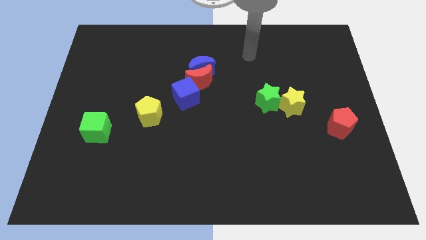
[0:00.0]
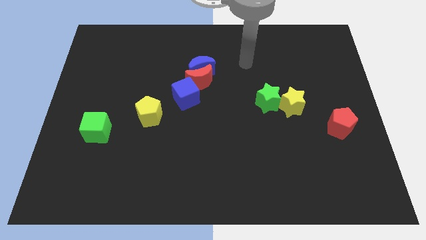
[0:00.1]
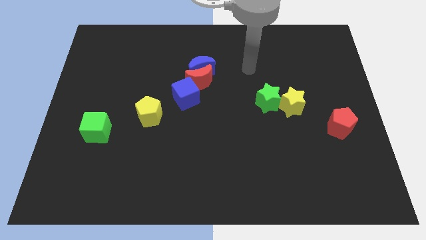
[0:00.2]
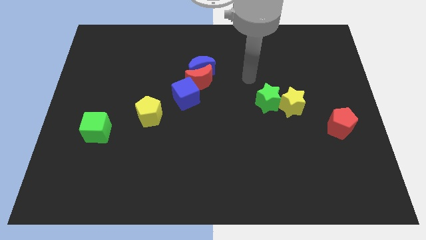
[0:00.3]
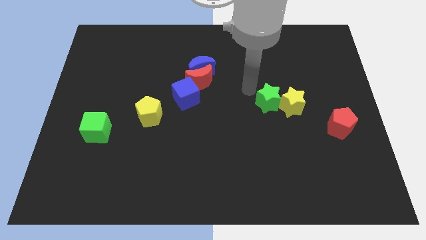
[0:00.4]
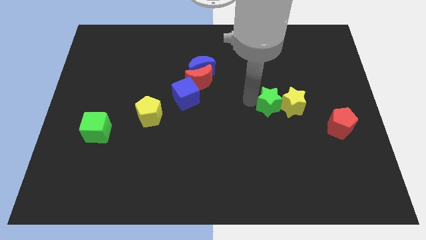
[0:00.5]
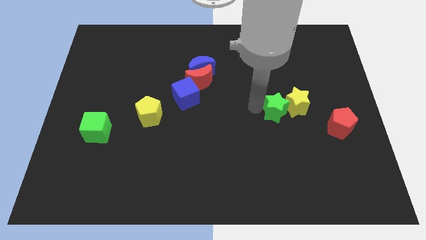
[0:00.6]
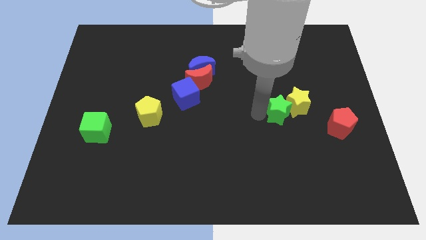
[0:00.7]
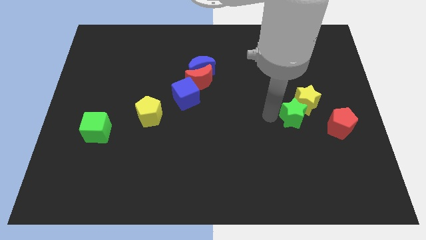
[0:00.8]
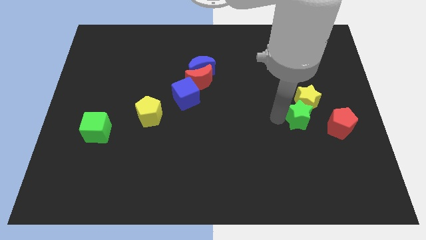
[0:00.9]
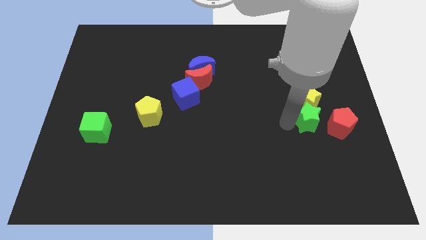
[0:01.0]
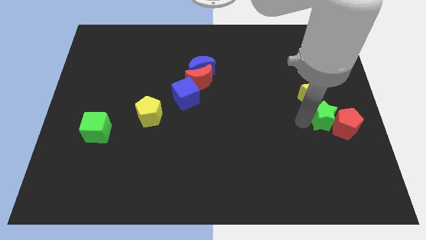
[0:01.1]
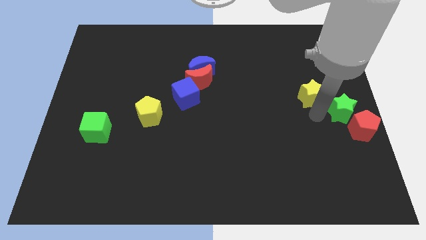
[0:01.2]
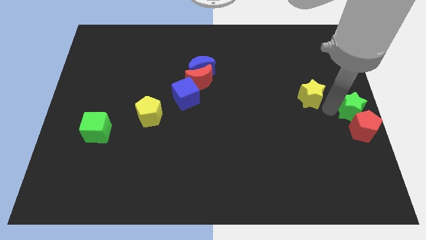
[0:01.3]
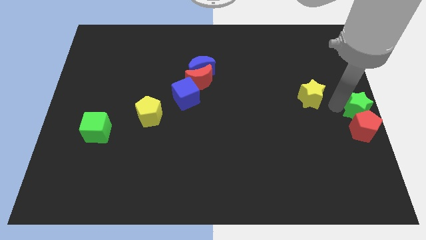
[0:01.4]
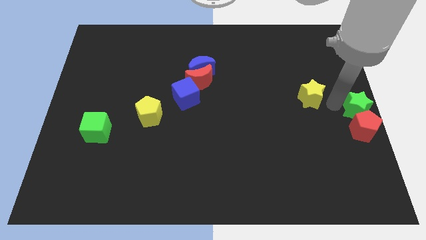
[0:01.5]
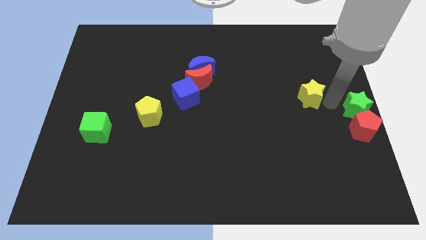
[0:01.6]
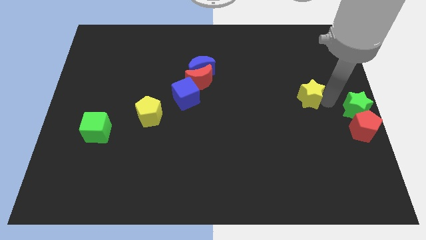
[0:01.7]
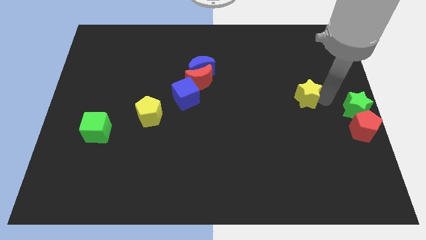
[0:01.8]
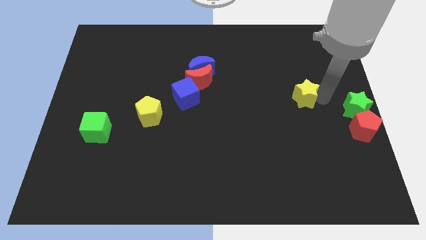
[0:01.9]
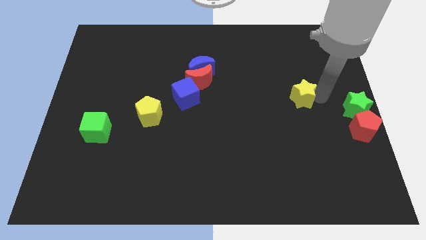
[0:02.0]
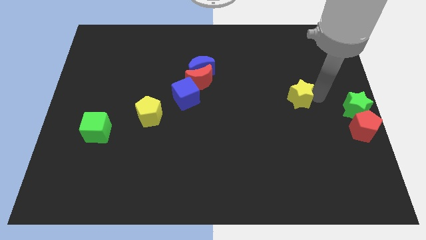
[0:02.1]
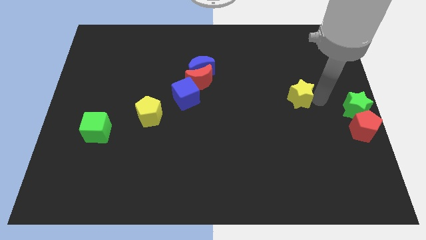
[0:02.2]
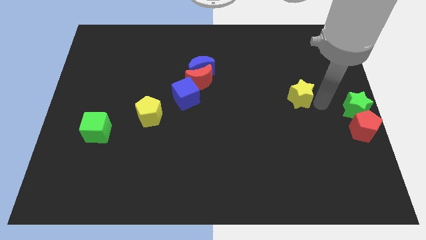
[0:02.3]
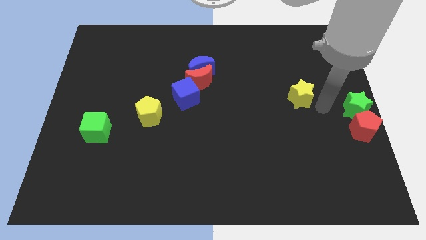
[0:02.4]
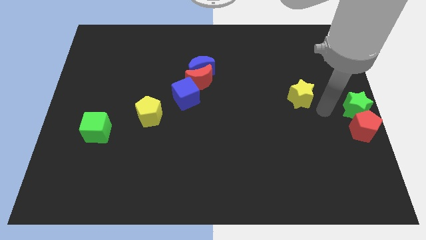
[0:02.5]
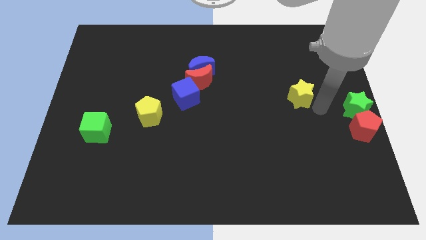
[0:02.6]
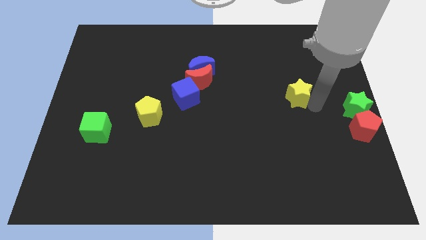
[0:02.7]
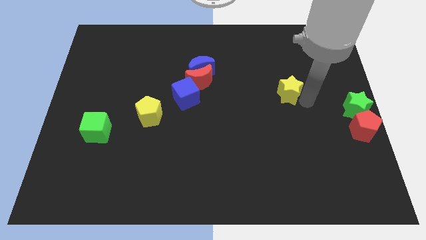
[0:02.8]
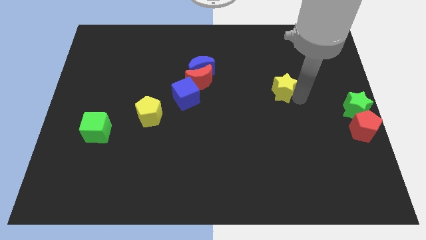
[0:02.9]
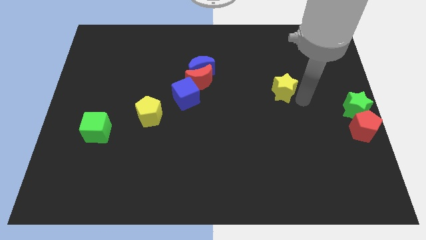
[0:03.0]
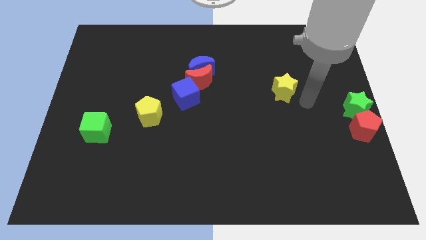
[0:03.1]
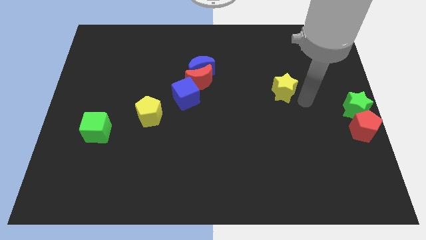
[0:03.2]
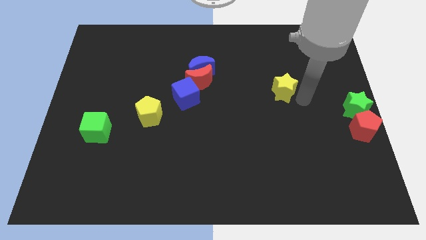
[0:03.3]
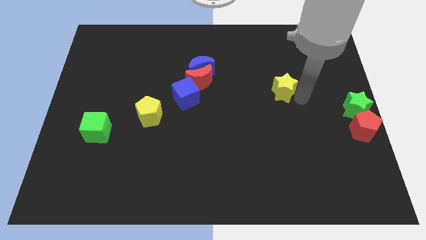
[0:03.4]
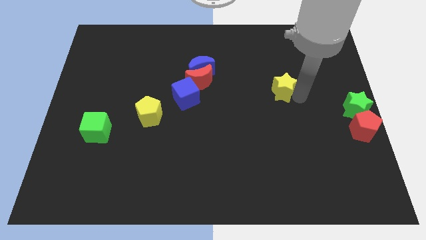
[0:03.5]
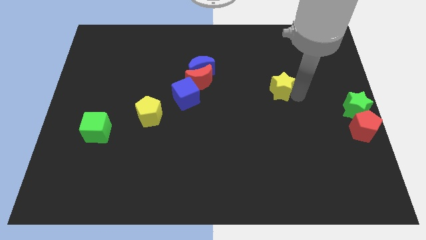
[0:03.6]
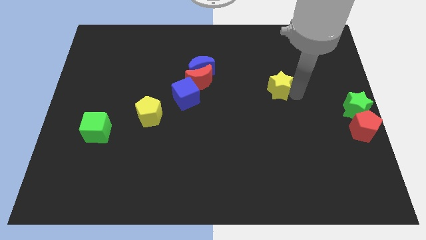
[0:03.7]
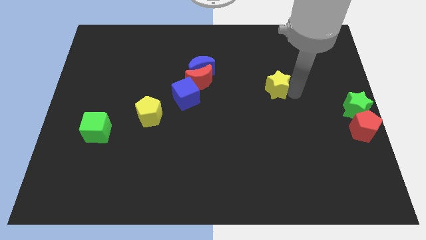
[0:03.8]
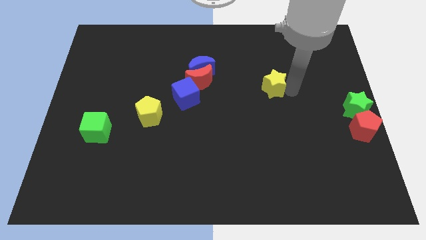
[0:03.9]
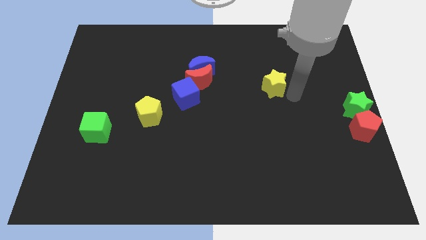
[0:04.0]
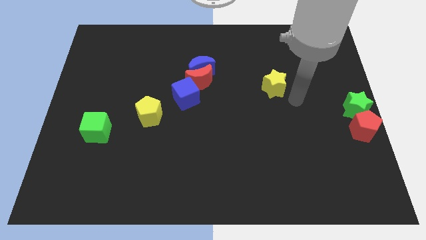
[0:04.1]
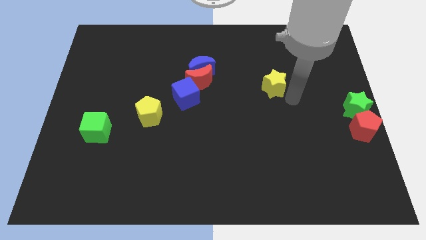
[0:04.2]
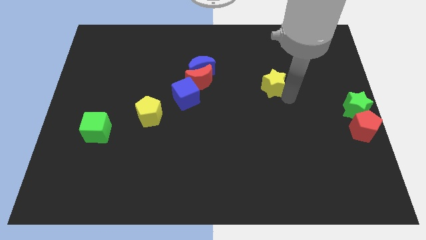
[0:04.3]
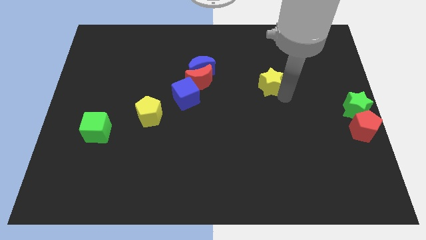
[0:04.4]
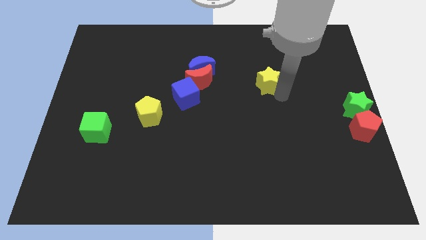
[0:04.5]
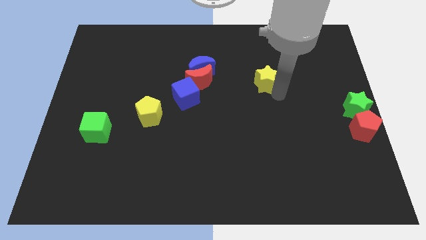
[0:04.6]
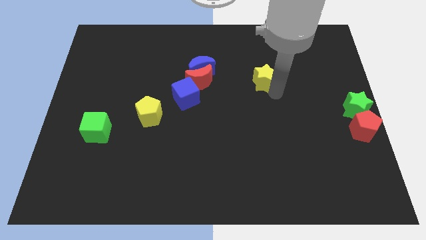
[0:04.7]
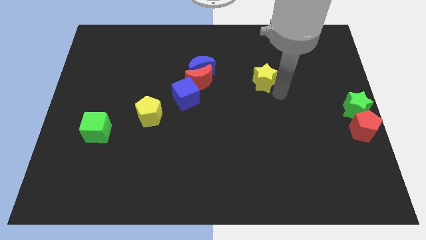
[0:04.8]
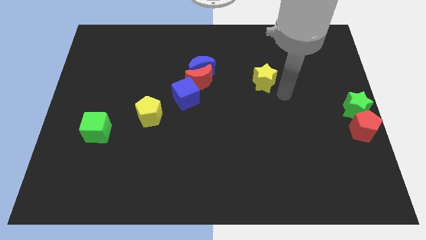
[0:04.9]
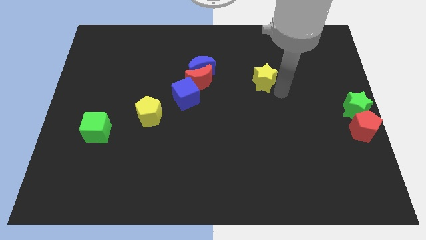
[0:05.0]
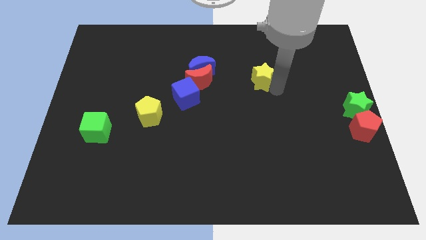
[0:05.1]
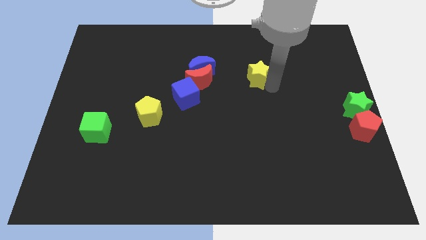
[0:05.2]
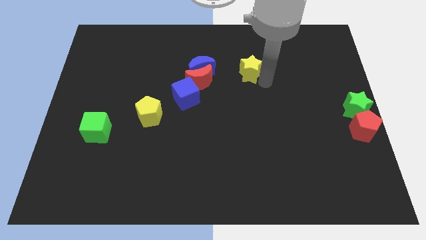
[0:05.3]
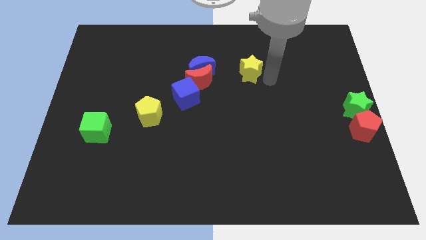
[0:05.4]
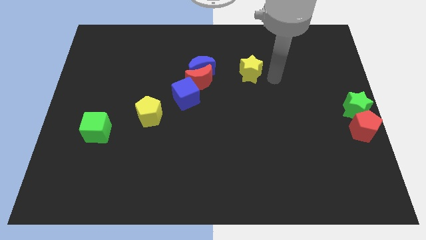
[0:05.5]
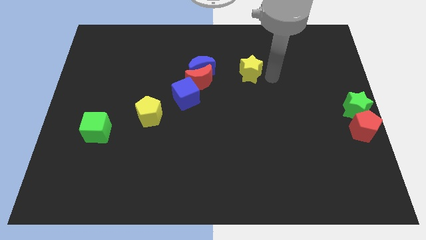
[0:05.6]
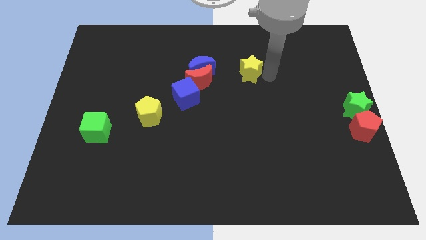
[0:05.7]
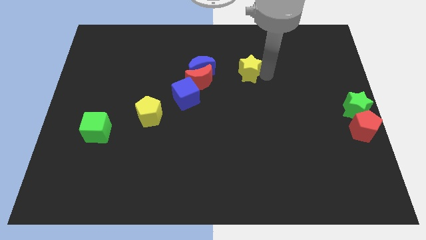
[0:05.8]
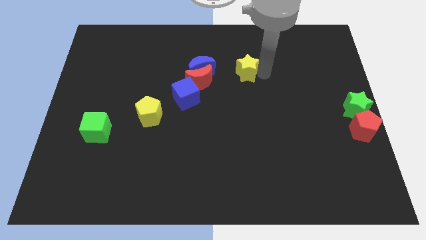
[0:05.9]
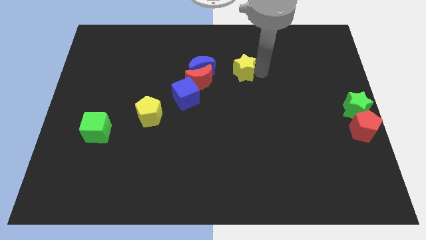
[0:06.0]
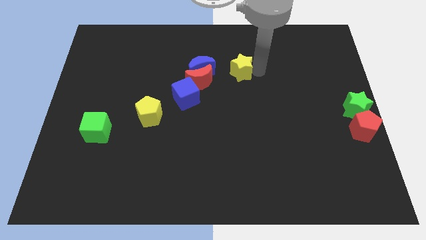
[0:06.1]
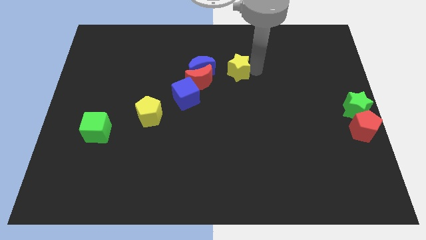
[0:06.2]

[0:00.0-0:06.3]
slide the yellow star to the top right of the red moon

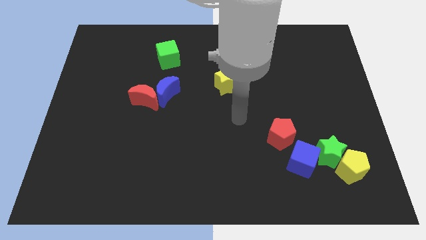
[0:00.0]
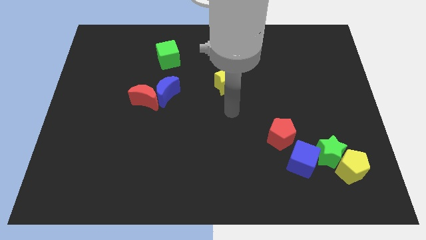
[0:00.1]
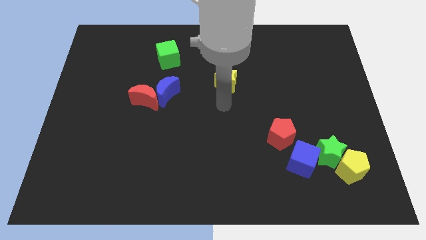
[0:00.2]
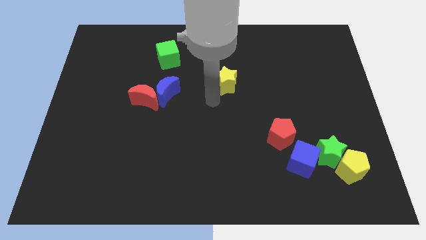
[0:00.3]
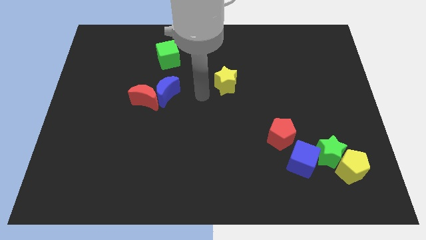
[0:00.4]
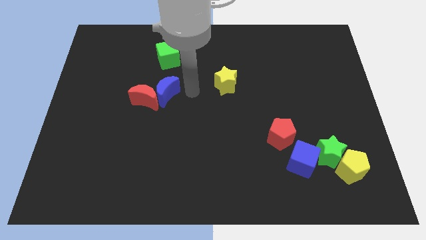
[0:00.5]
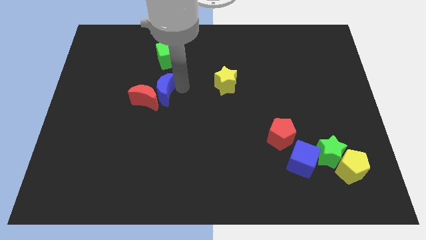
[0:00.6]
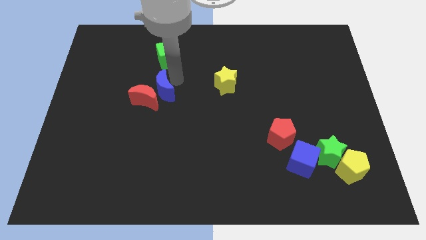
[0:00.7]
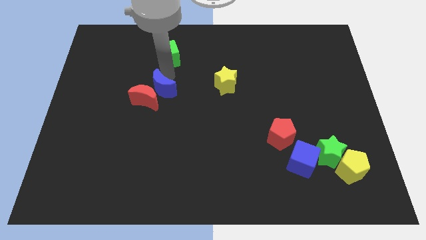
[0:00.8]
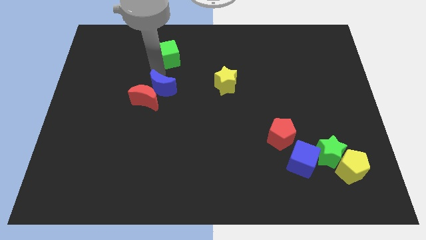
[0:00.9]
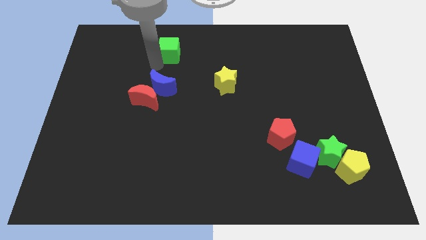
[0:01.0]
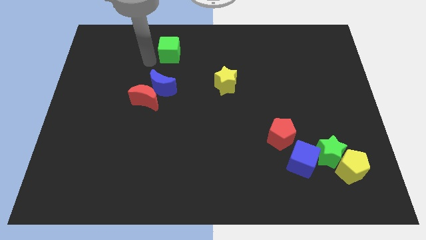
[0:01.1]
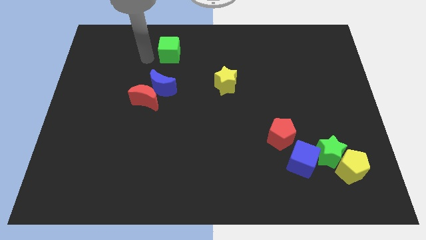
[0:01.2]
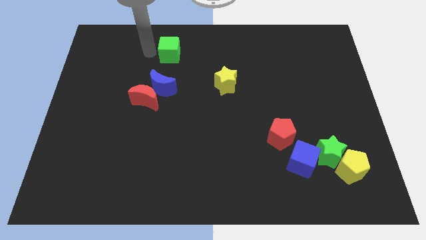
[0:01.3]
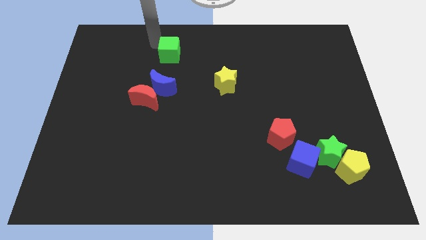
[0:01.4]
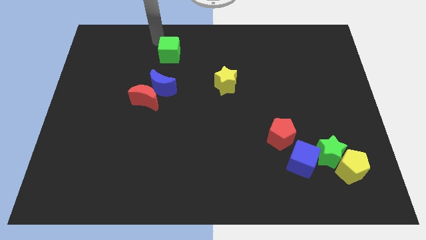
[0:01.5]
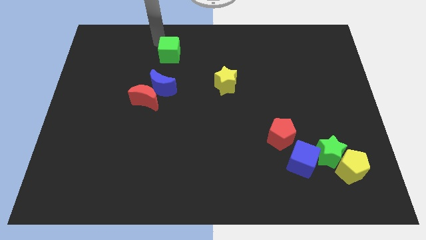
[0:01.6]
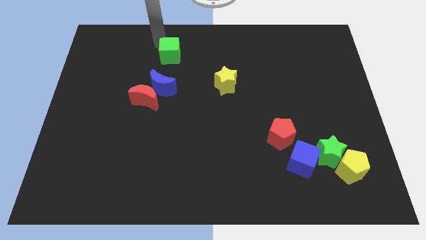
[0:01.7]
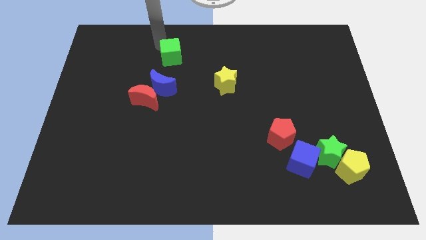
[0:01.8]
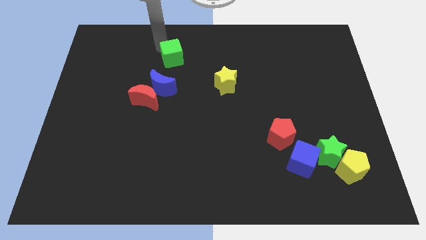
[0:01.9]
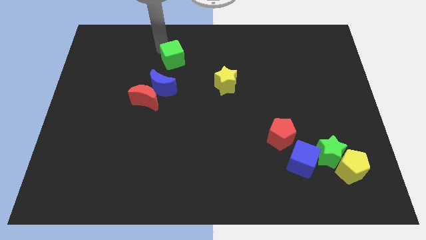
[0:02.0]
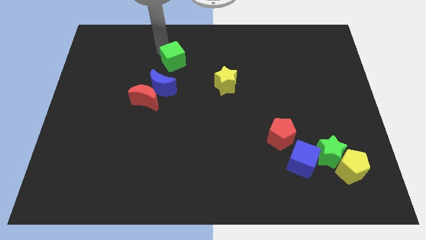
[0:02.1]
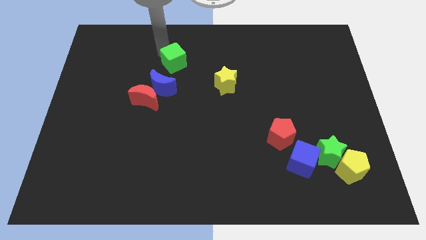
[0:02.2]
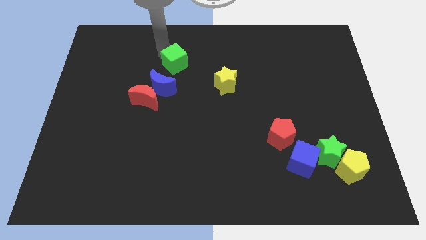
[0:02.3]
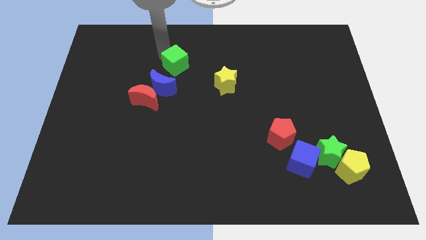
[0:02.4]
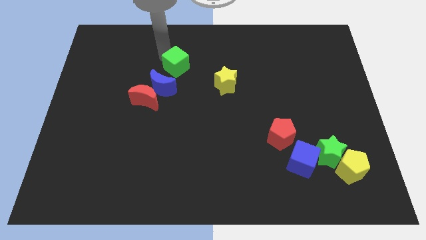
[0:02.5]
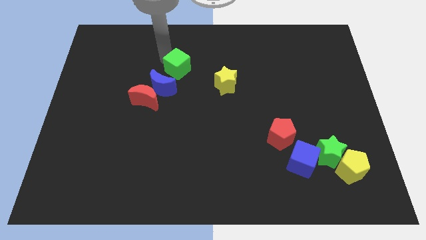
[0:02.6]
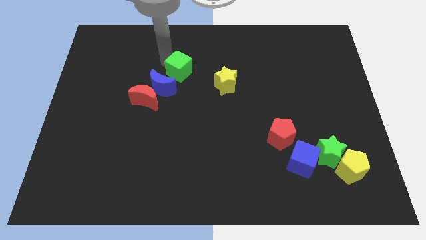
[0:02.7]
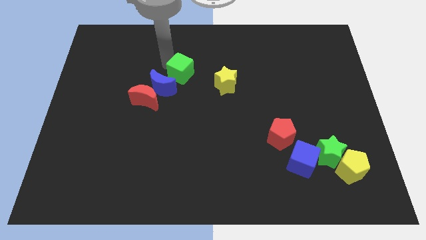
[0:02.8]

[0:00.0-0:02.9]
move the green cube to the left side of the yellow star
